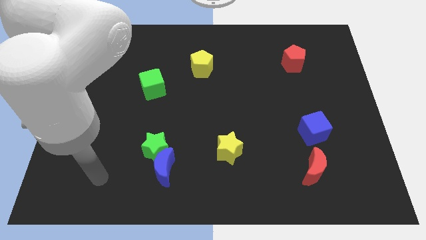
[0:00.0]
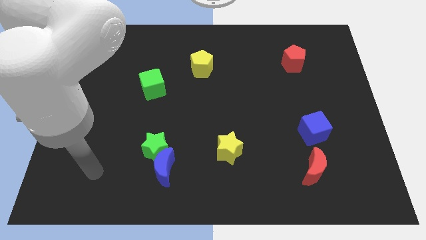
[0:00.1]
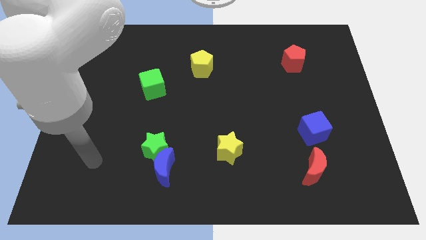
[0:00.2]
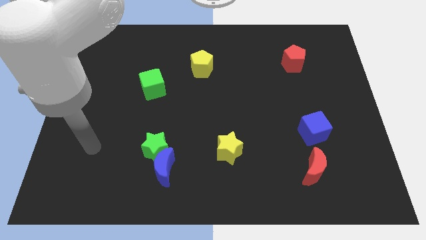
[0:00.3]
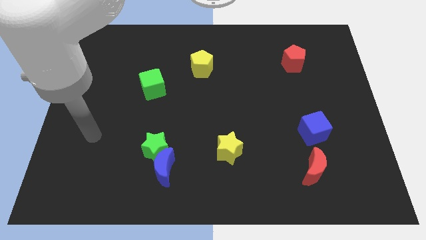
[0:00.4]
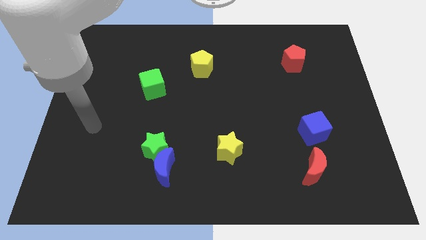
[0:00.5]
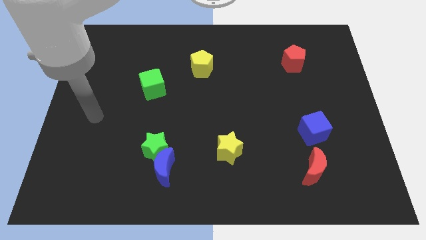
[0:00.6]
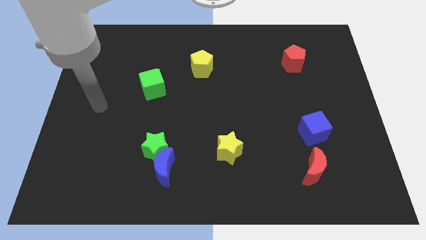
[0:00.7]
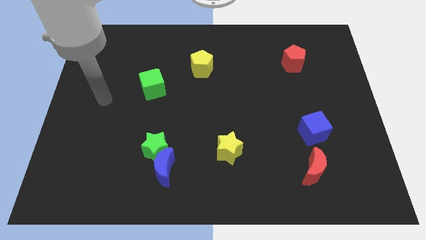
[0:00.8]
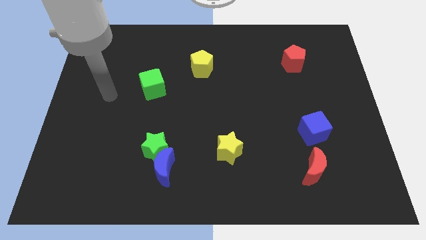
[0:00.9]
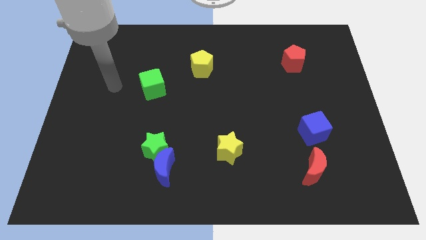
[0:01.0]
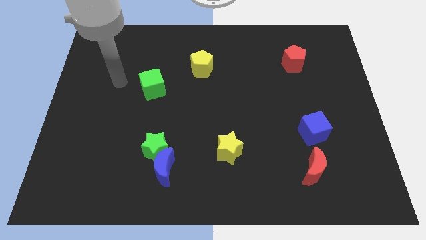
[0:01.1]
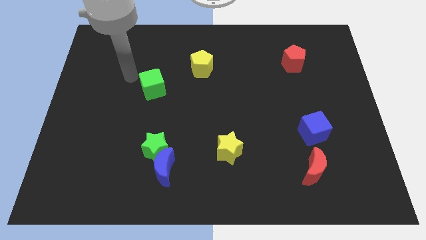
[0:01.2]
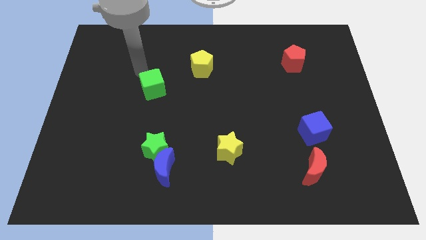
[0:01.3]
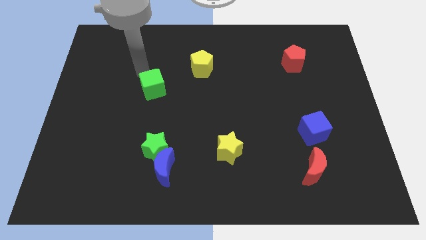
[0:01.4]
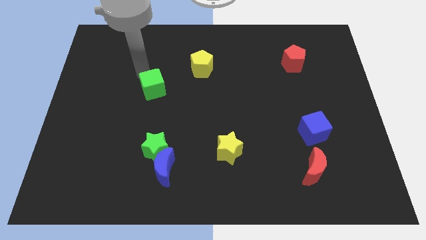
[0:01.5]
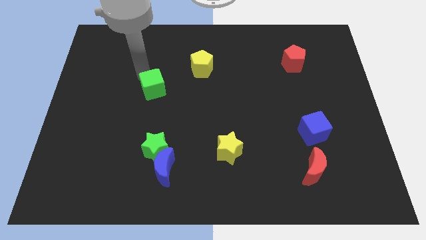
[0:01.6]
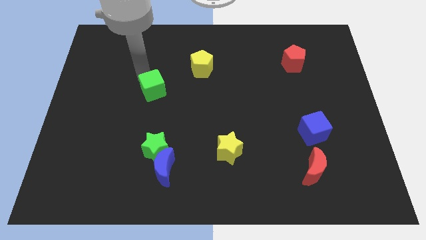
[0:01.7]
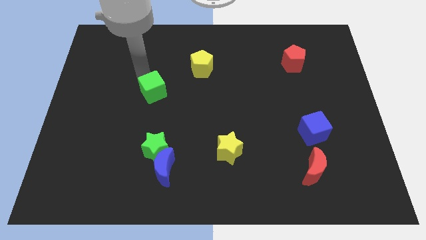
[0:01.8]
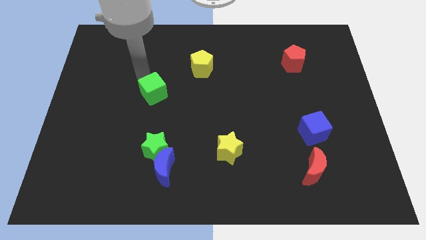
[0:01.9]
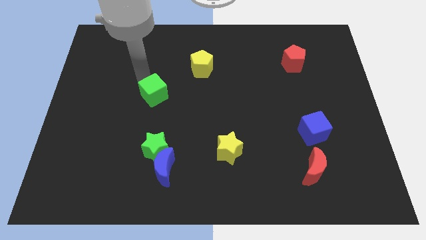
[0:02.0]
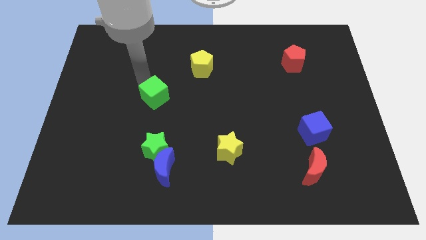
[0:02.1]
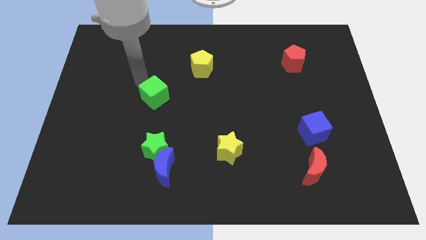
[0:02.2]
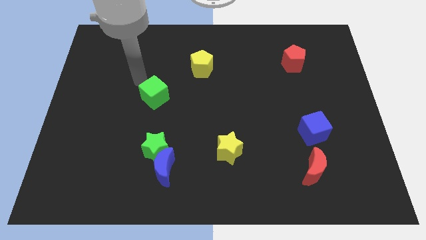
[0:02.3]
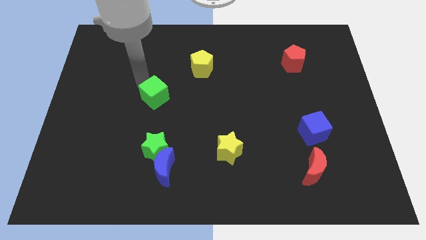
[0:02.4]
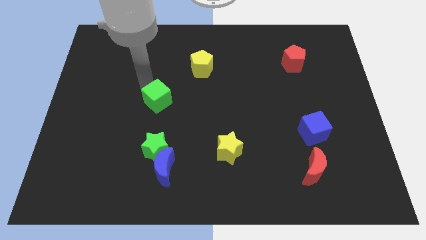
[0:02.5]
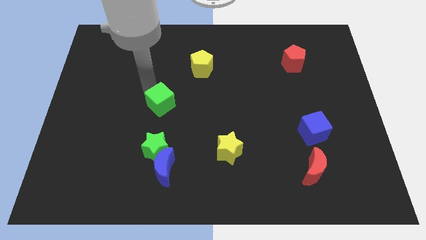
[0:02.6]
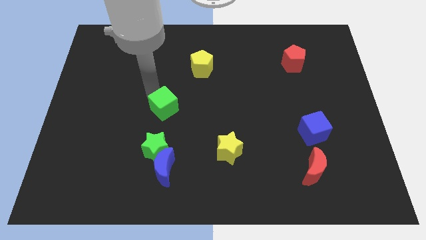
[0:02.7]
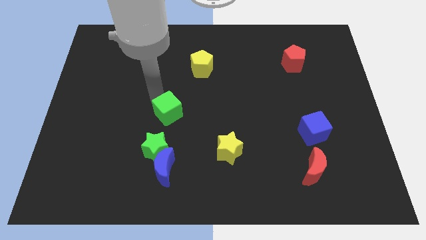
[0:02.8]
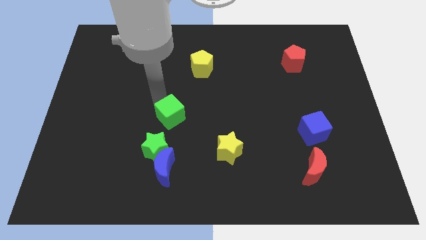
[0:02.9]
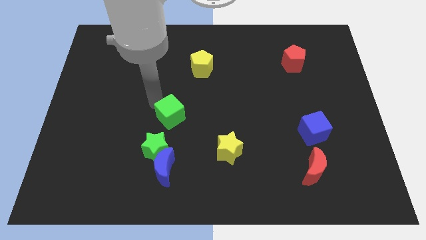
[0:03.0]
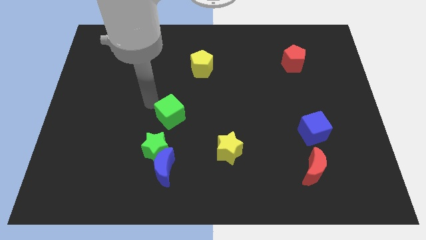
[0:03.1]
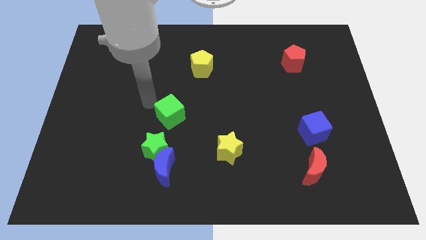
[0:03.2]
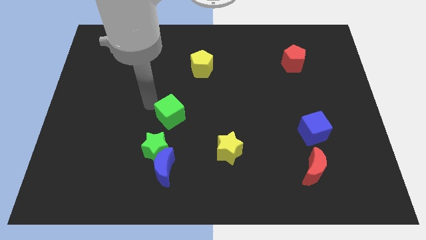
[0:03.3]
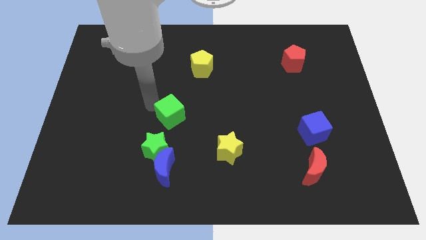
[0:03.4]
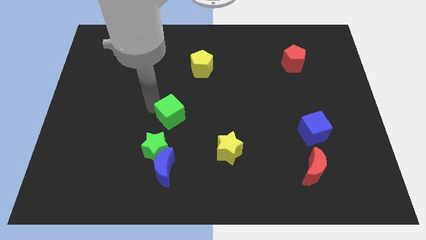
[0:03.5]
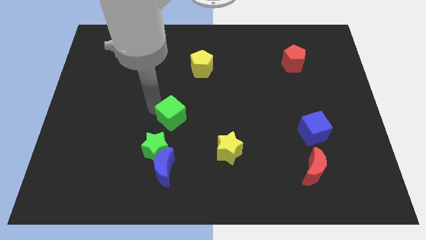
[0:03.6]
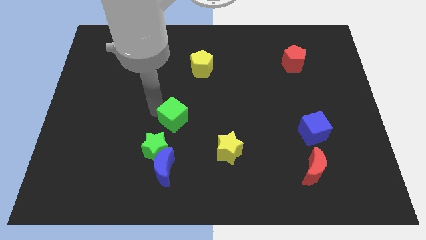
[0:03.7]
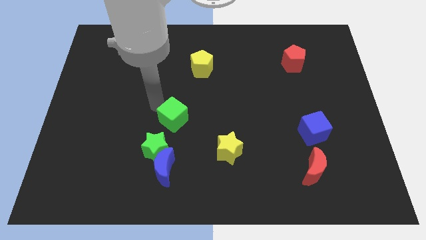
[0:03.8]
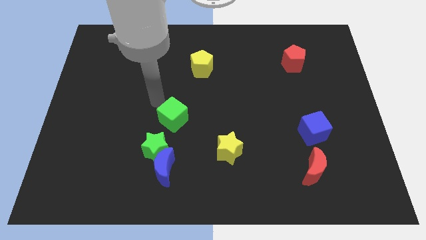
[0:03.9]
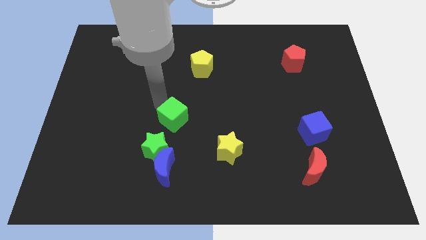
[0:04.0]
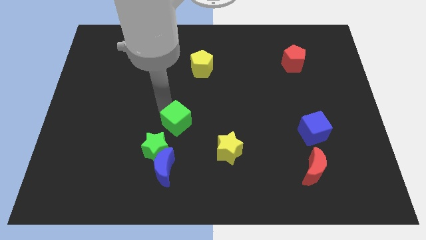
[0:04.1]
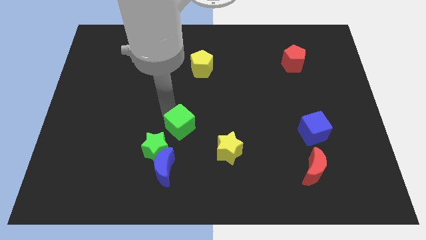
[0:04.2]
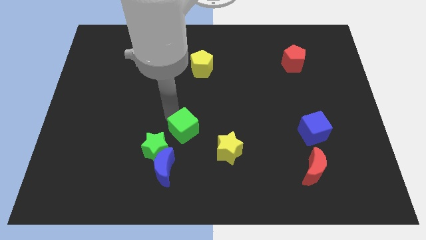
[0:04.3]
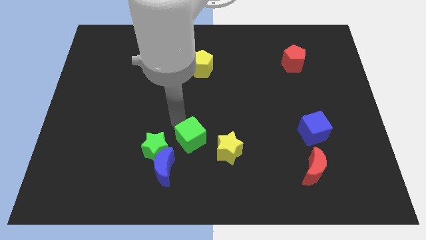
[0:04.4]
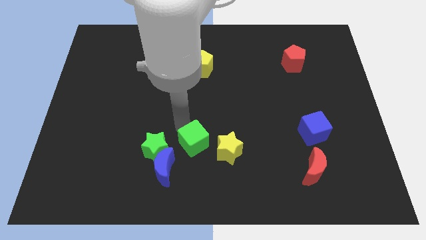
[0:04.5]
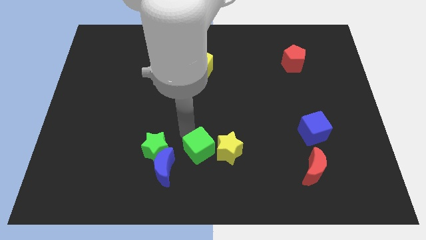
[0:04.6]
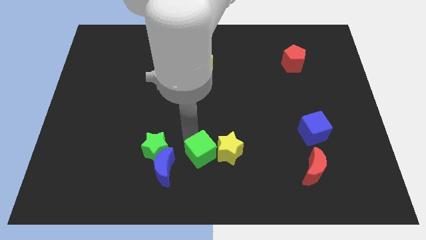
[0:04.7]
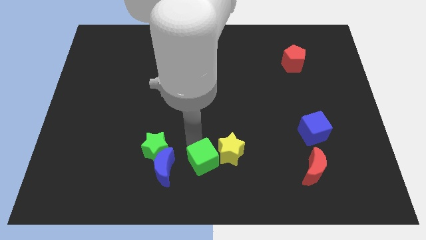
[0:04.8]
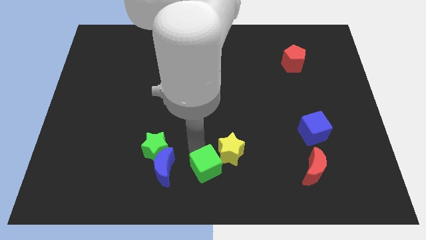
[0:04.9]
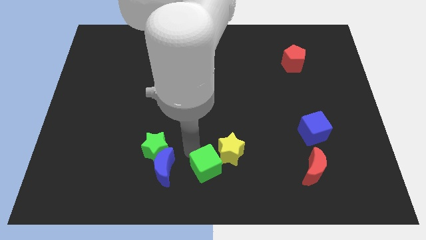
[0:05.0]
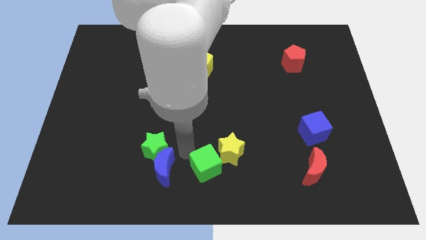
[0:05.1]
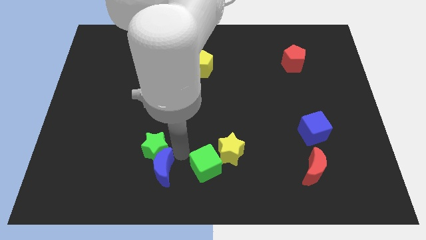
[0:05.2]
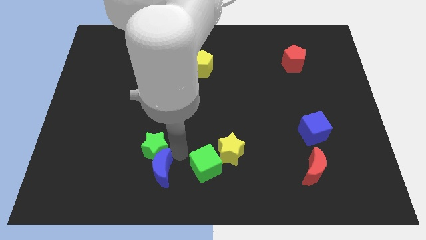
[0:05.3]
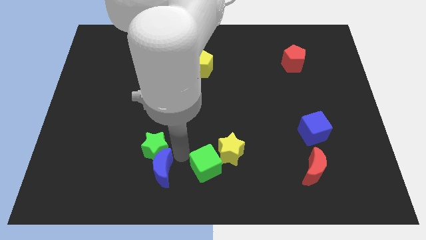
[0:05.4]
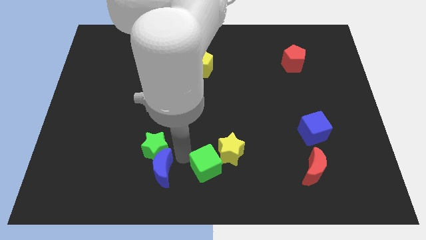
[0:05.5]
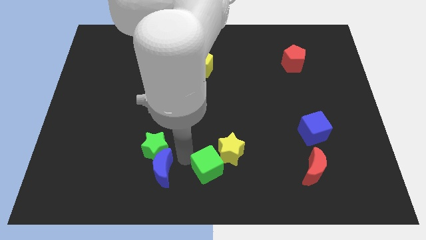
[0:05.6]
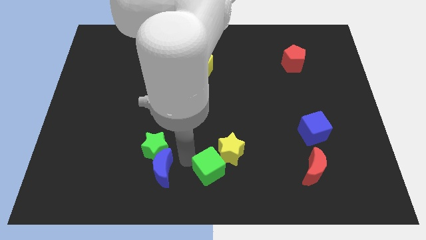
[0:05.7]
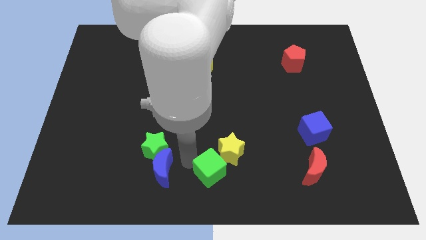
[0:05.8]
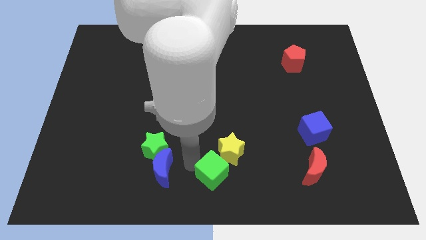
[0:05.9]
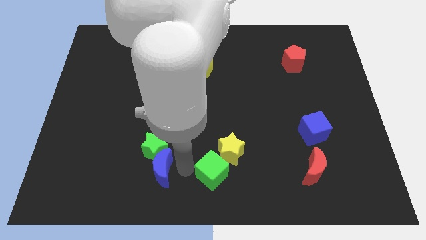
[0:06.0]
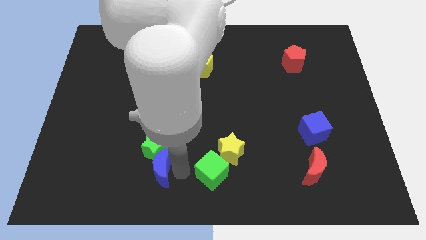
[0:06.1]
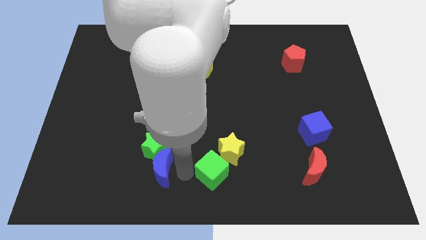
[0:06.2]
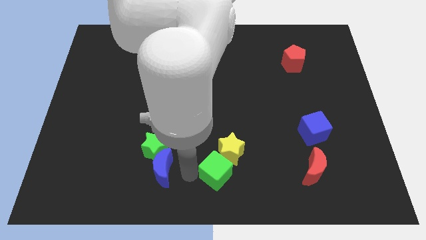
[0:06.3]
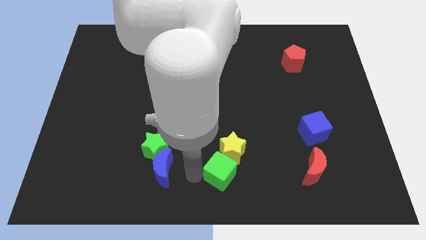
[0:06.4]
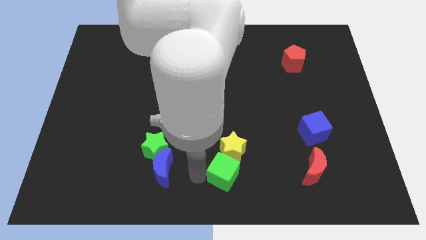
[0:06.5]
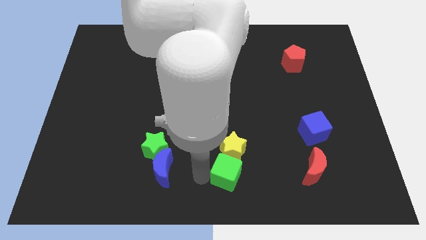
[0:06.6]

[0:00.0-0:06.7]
push the green cube to the bottom right side of the yellow star

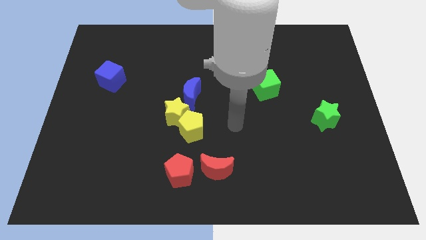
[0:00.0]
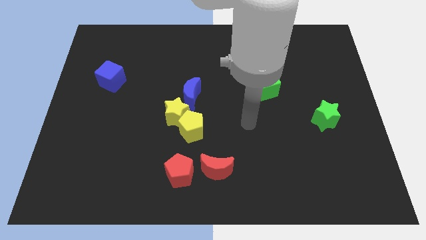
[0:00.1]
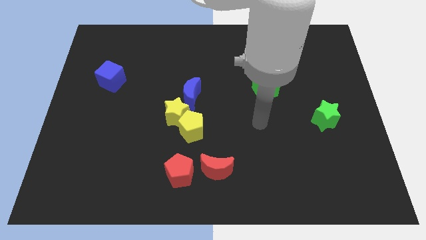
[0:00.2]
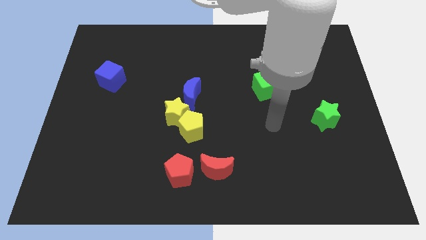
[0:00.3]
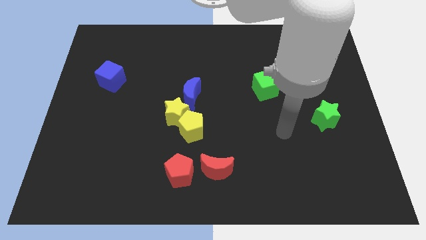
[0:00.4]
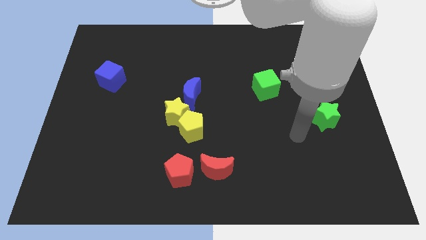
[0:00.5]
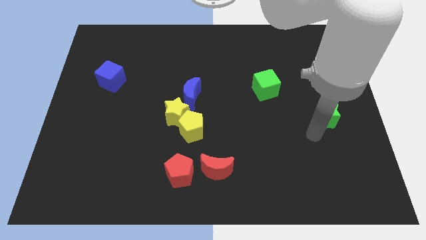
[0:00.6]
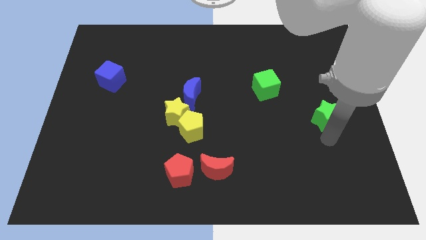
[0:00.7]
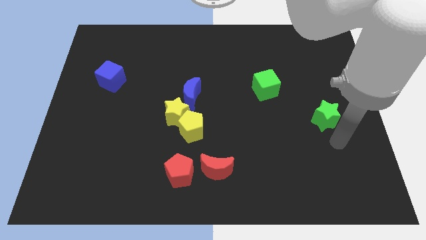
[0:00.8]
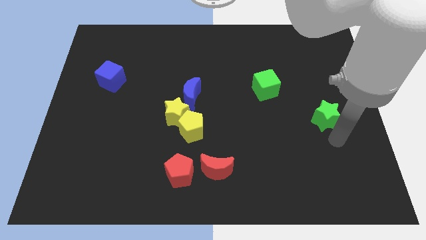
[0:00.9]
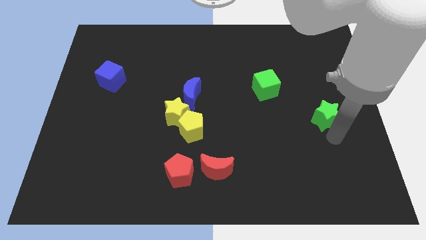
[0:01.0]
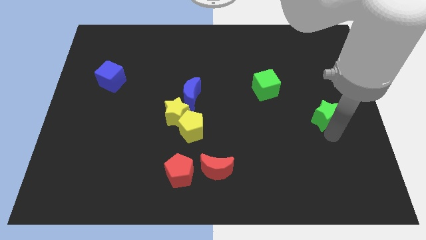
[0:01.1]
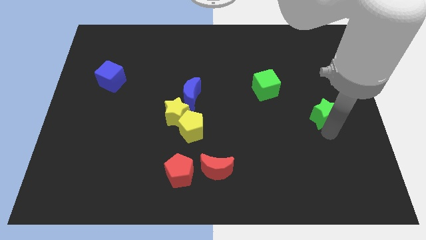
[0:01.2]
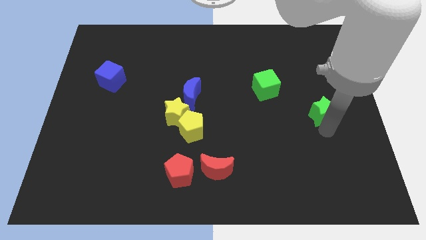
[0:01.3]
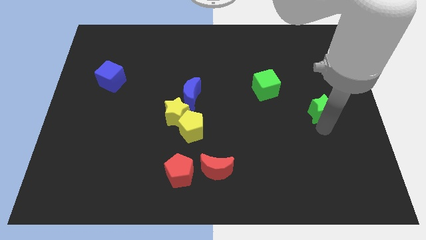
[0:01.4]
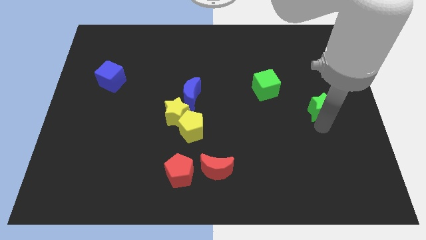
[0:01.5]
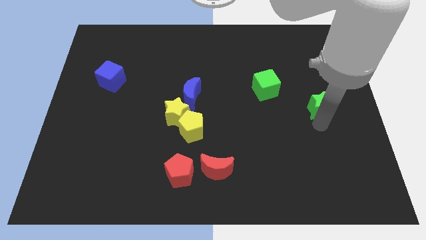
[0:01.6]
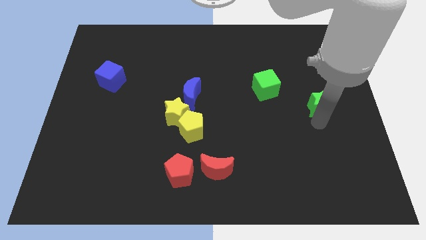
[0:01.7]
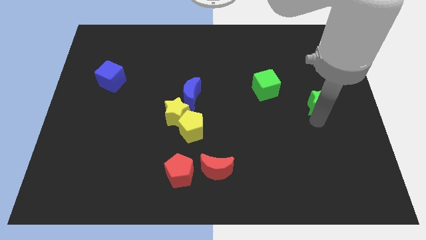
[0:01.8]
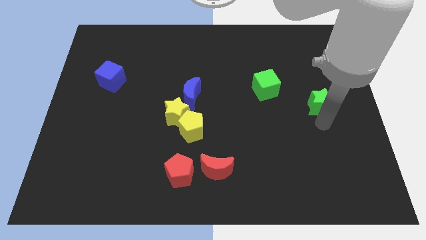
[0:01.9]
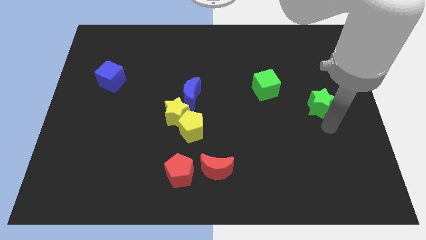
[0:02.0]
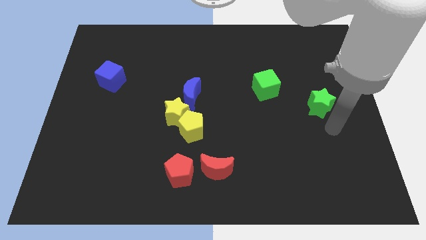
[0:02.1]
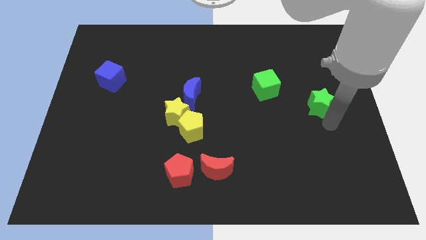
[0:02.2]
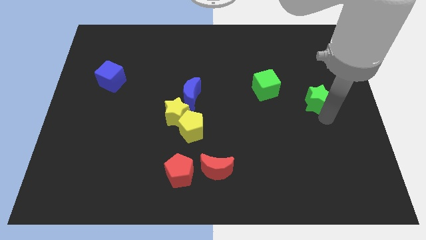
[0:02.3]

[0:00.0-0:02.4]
put the green star to the right side of the green cube
